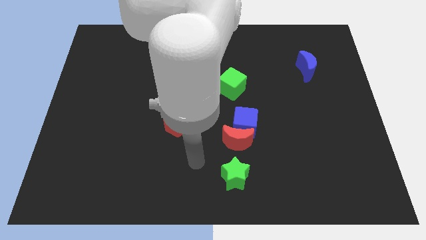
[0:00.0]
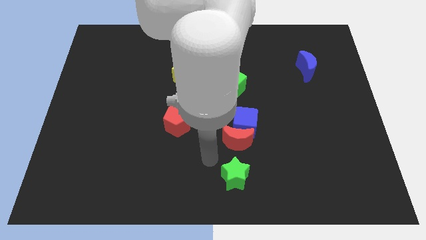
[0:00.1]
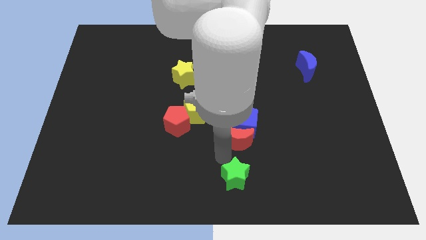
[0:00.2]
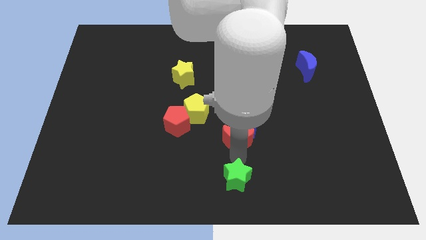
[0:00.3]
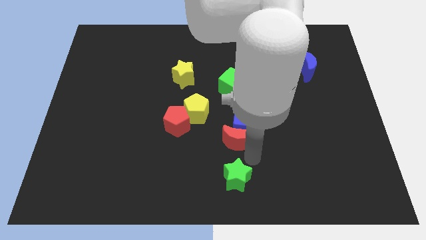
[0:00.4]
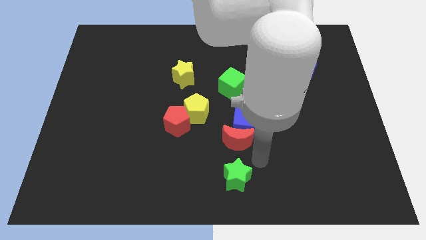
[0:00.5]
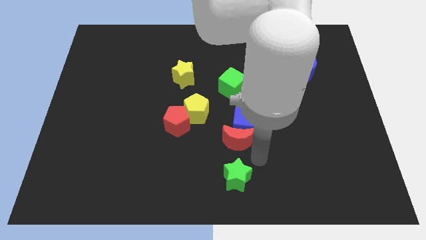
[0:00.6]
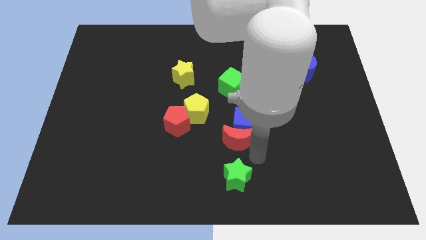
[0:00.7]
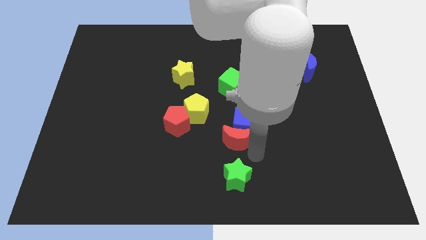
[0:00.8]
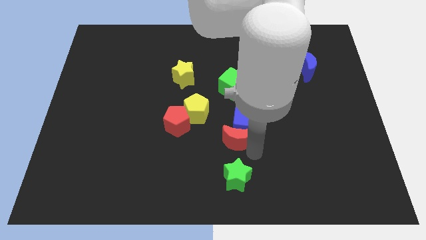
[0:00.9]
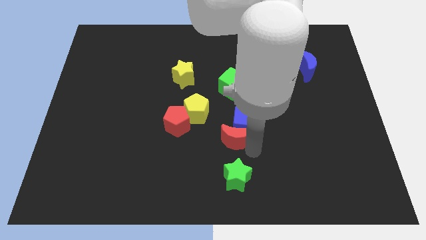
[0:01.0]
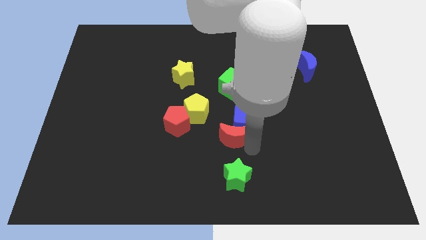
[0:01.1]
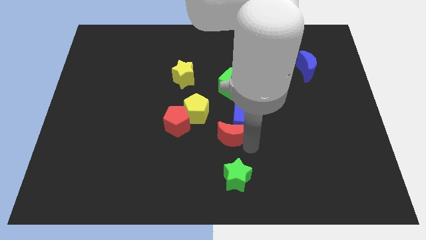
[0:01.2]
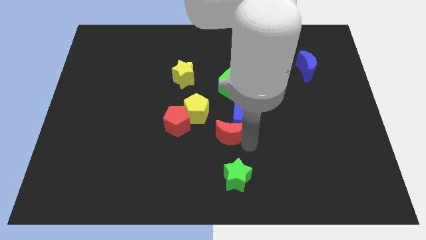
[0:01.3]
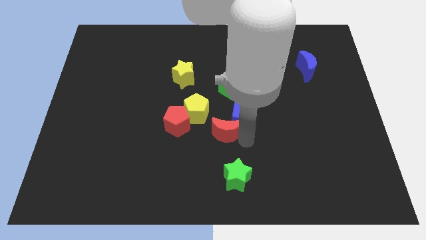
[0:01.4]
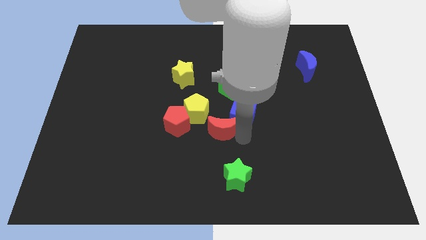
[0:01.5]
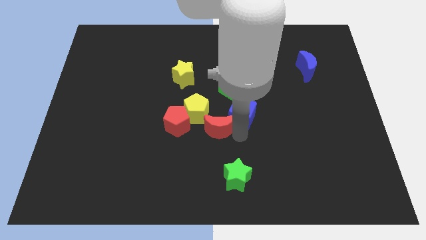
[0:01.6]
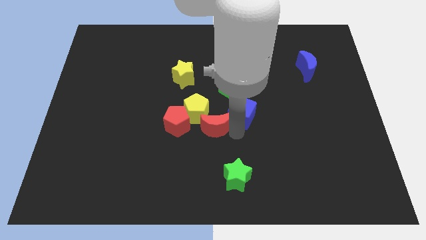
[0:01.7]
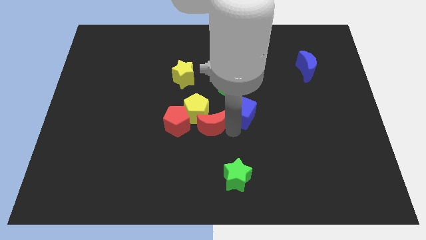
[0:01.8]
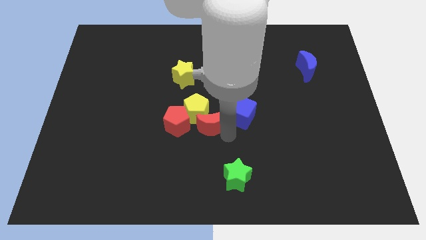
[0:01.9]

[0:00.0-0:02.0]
push the red moon diagonally up and left a little

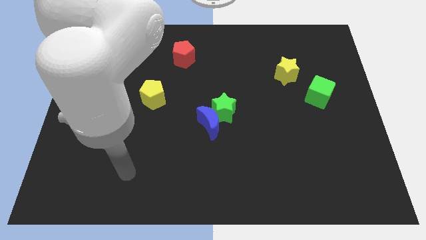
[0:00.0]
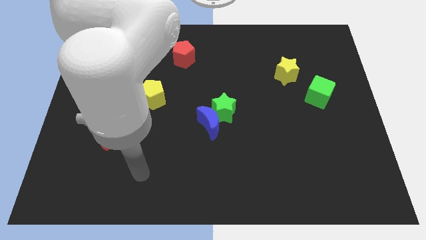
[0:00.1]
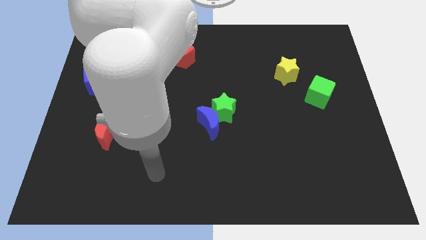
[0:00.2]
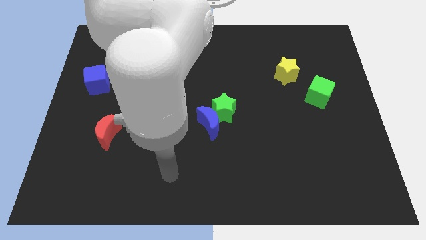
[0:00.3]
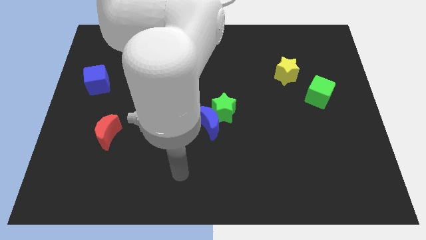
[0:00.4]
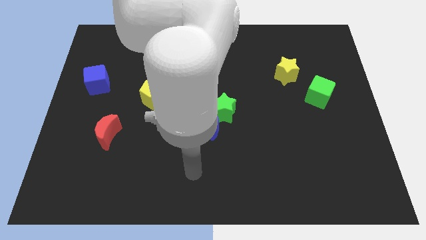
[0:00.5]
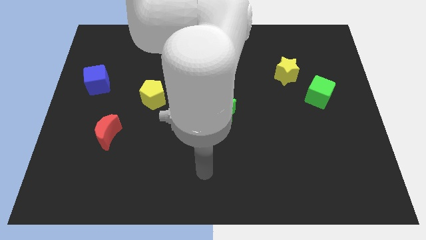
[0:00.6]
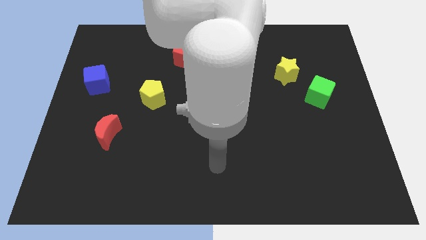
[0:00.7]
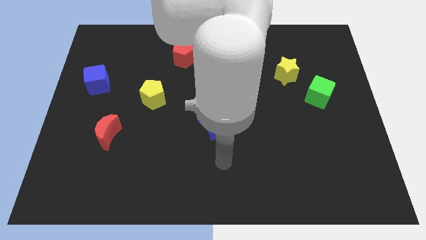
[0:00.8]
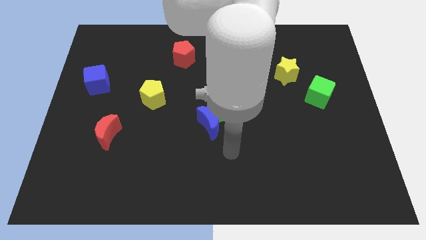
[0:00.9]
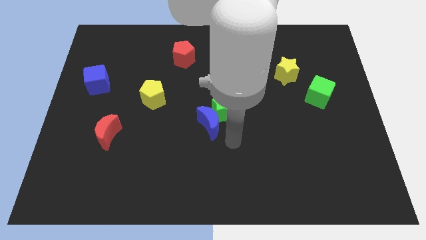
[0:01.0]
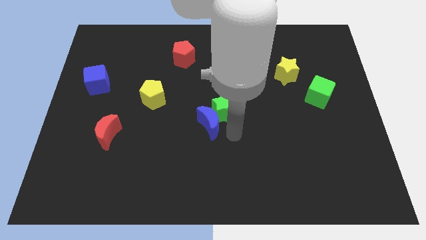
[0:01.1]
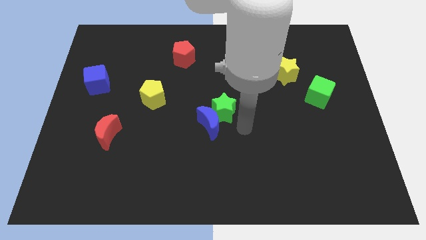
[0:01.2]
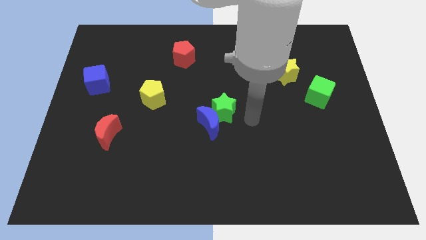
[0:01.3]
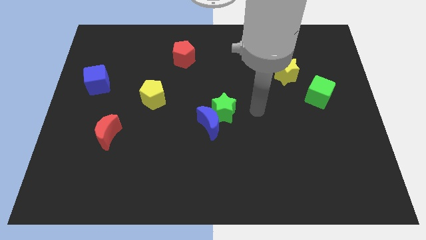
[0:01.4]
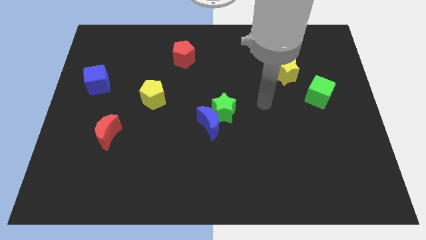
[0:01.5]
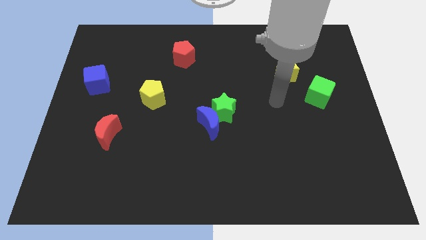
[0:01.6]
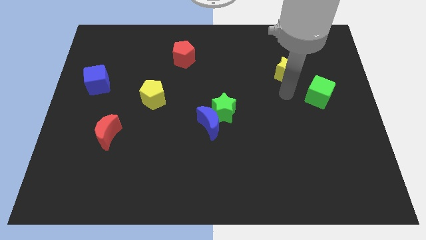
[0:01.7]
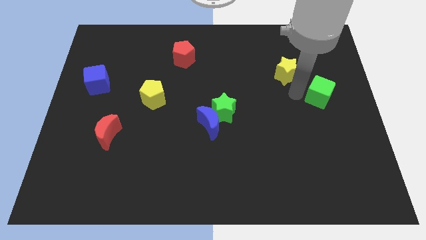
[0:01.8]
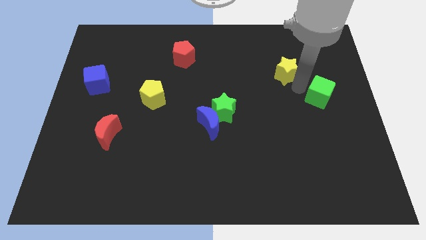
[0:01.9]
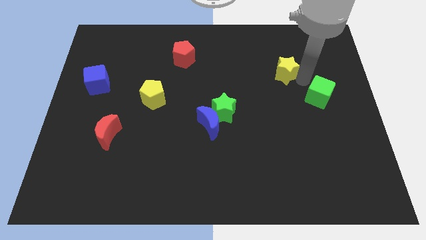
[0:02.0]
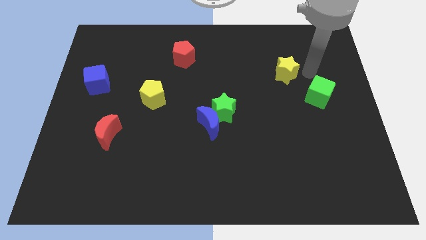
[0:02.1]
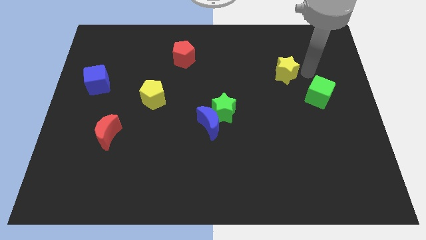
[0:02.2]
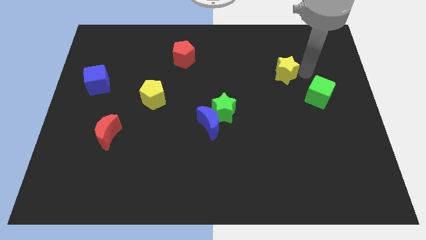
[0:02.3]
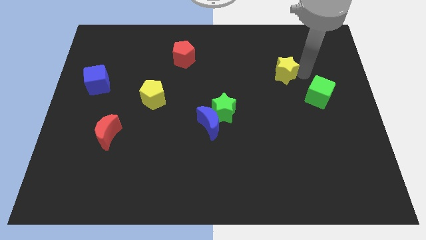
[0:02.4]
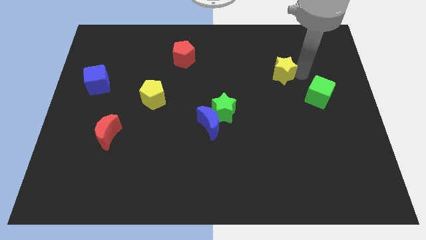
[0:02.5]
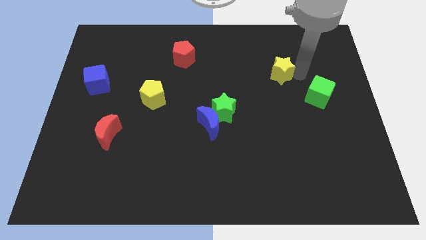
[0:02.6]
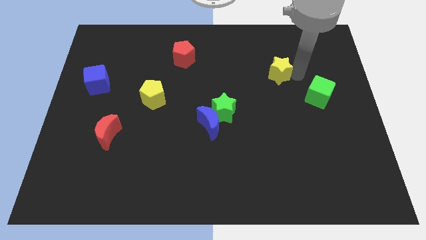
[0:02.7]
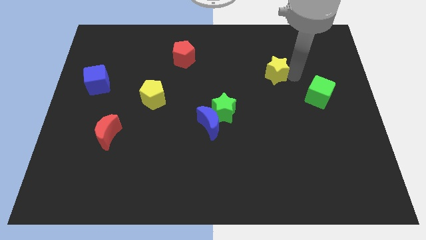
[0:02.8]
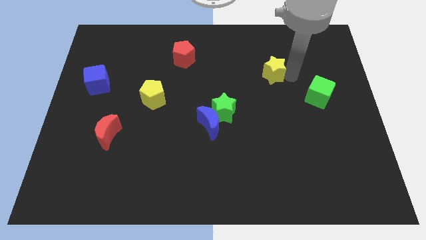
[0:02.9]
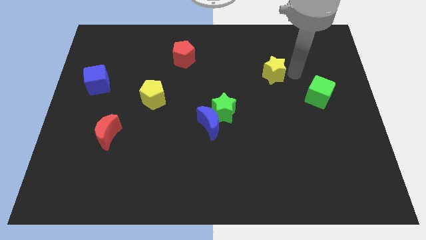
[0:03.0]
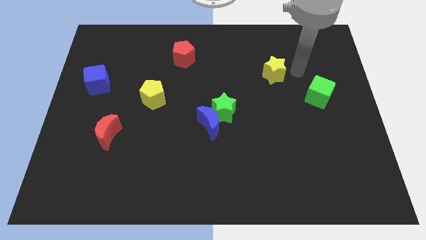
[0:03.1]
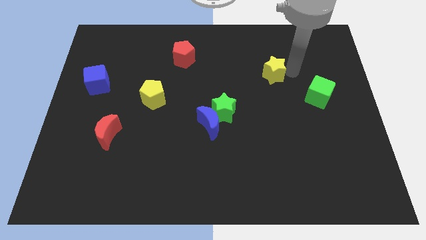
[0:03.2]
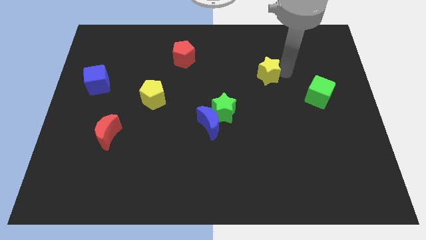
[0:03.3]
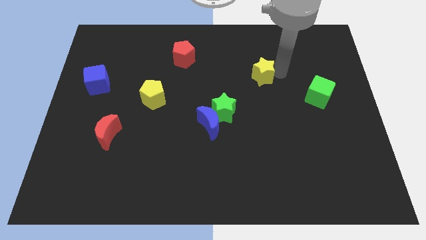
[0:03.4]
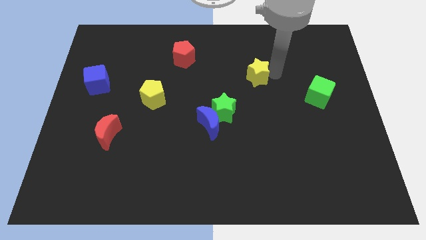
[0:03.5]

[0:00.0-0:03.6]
push the yellow star left a bit

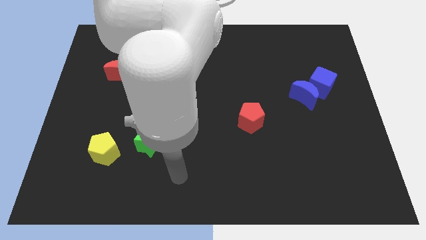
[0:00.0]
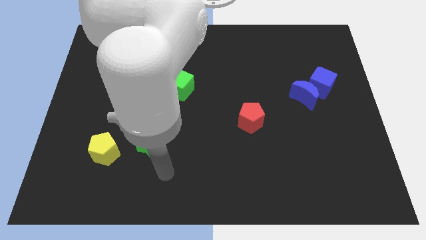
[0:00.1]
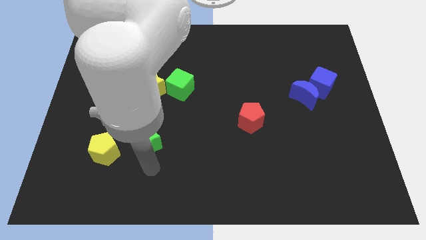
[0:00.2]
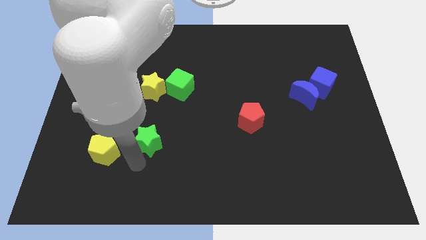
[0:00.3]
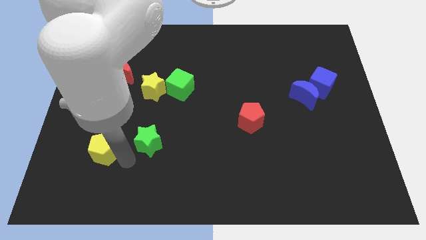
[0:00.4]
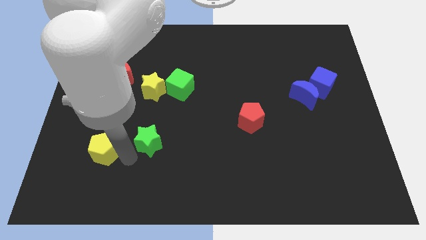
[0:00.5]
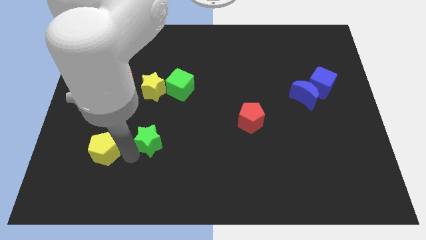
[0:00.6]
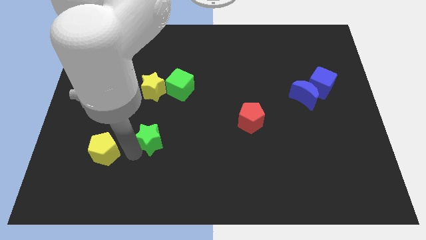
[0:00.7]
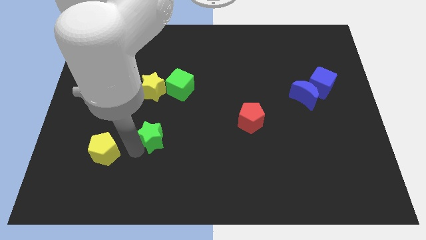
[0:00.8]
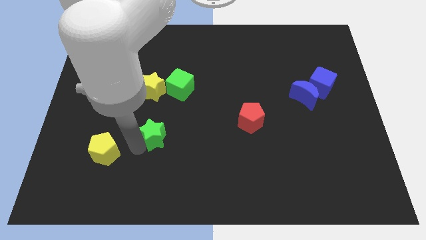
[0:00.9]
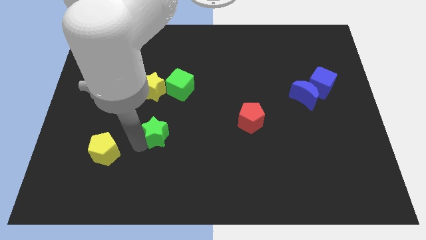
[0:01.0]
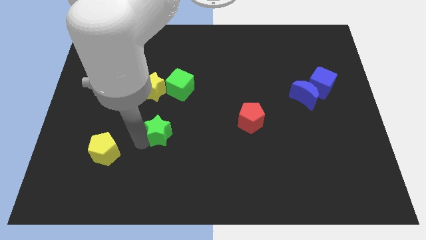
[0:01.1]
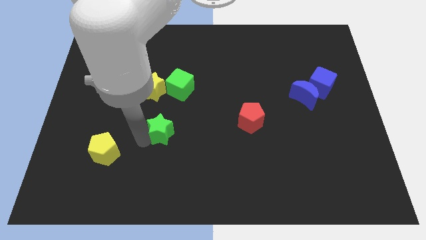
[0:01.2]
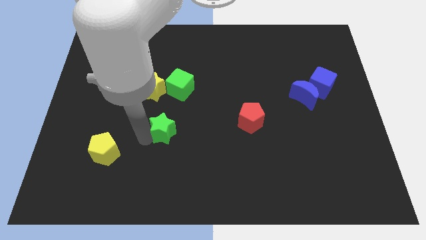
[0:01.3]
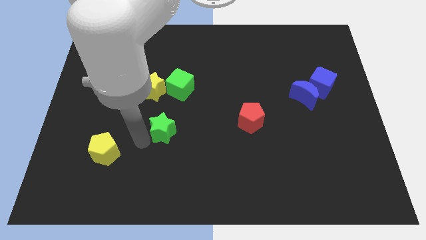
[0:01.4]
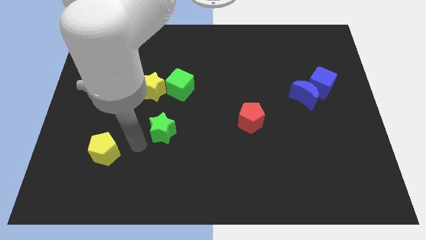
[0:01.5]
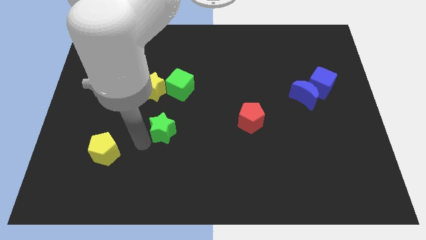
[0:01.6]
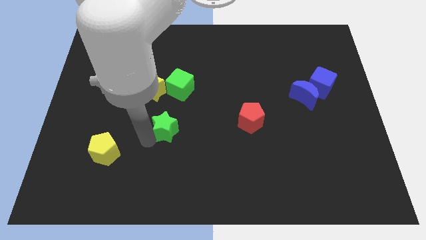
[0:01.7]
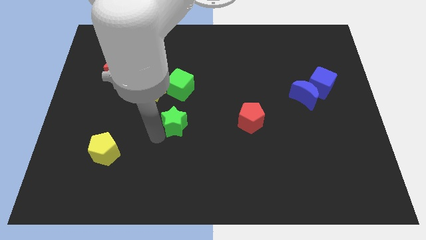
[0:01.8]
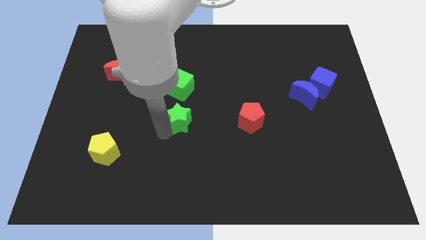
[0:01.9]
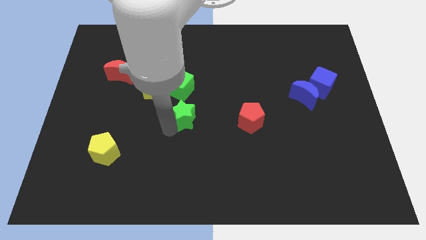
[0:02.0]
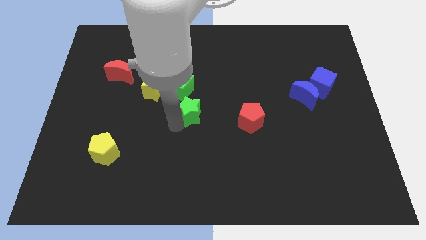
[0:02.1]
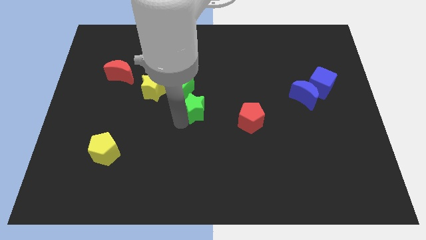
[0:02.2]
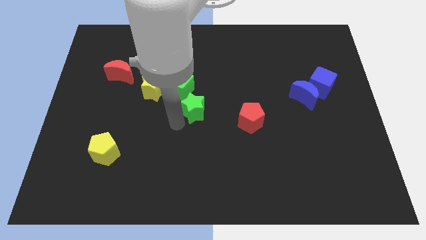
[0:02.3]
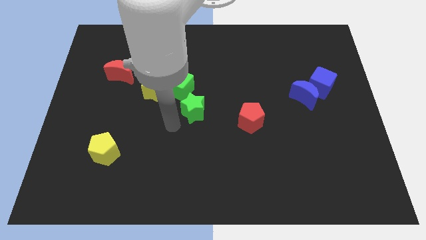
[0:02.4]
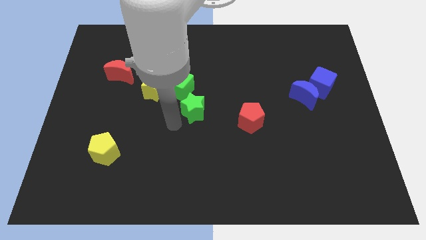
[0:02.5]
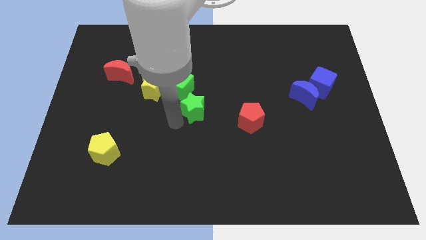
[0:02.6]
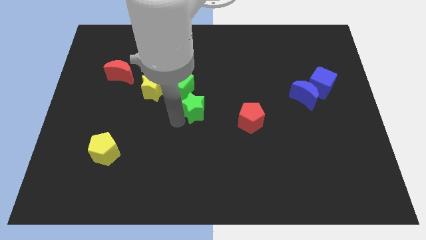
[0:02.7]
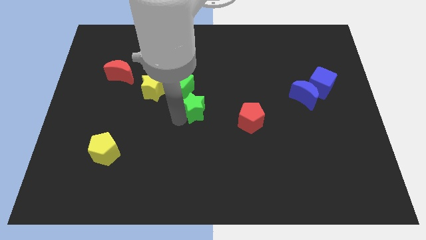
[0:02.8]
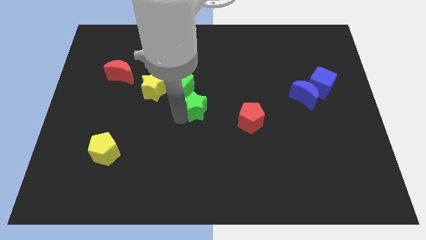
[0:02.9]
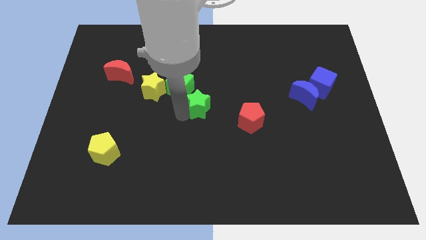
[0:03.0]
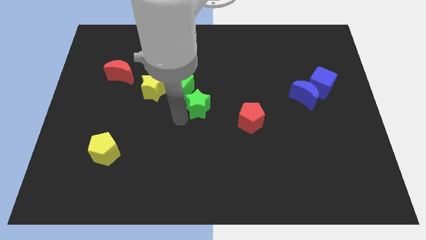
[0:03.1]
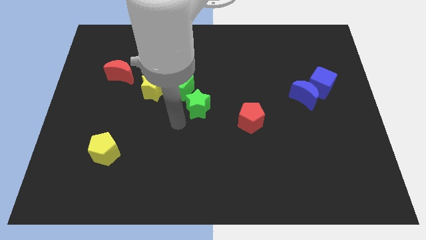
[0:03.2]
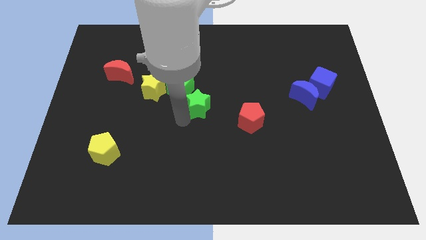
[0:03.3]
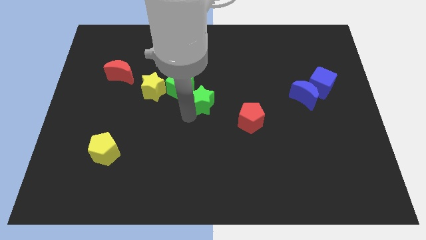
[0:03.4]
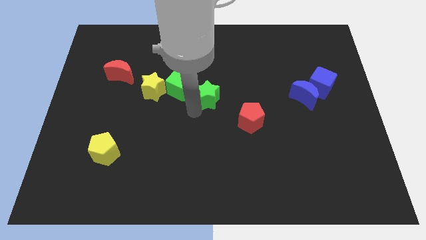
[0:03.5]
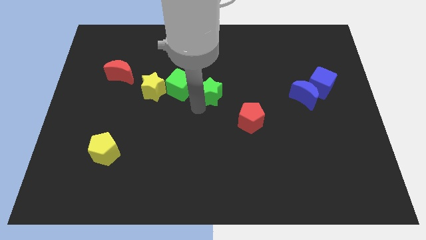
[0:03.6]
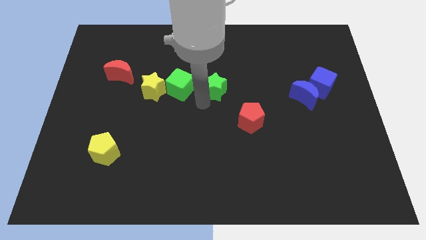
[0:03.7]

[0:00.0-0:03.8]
slide the green star upwards and right
